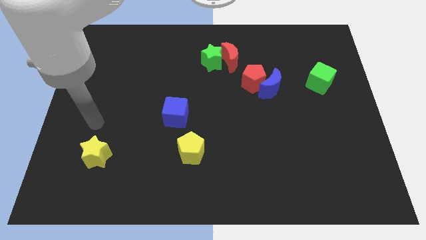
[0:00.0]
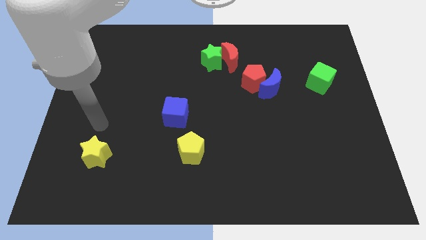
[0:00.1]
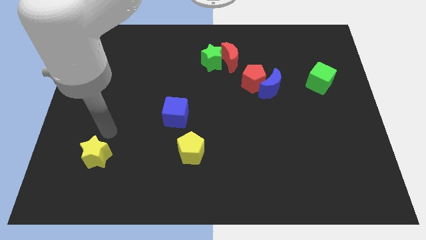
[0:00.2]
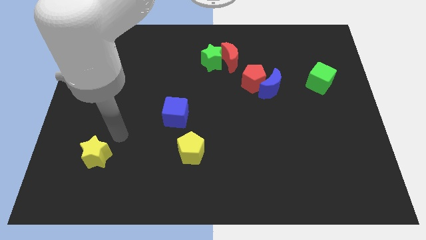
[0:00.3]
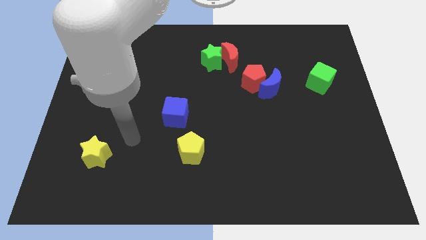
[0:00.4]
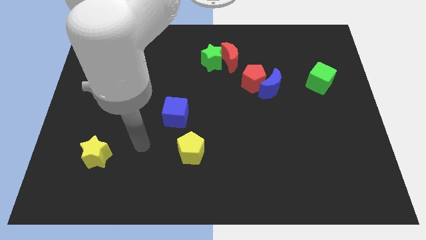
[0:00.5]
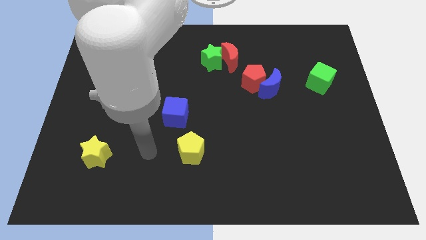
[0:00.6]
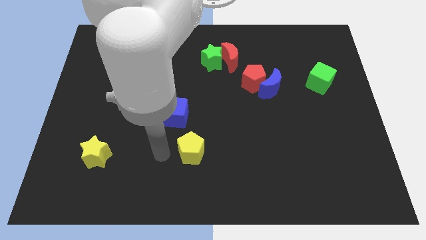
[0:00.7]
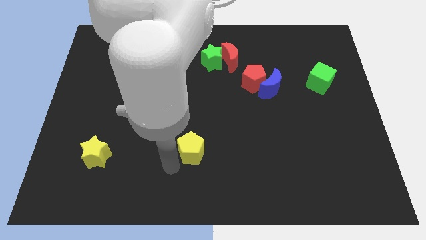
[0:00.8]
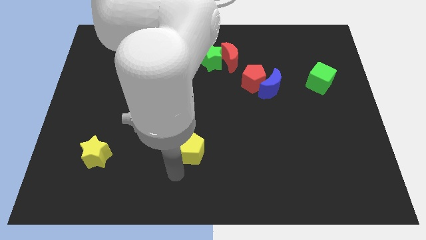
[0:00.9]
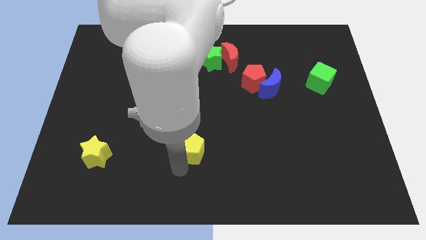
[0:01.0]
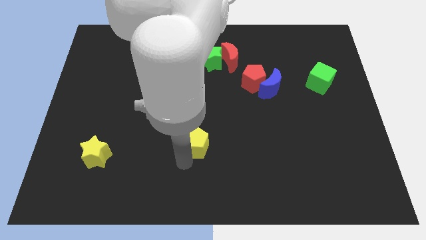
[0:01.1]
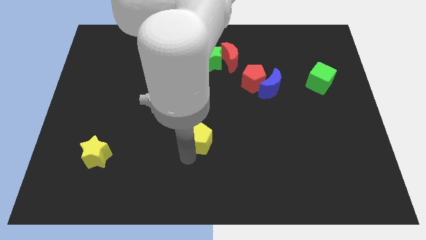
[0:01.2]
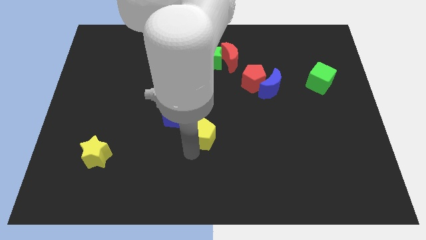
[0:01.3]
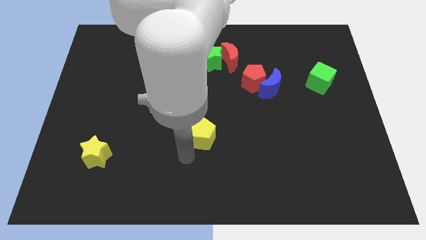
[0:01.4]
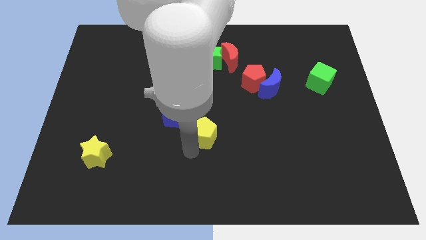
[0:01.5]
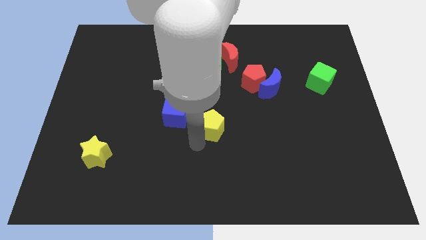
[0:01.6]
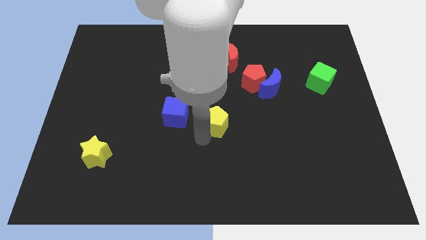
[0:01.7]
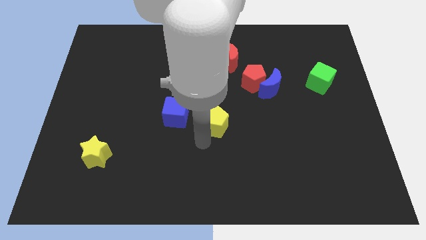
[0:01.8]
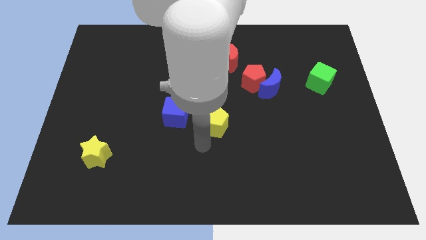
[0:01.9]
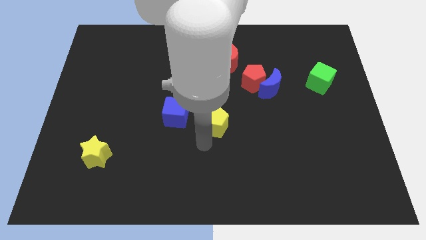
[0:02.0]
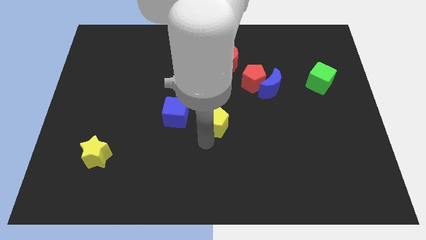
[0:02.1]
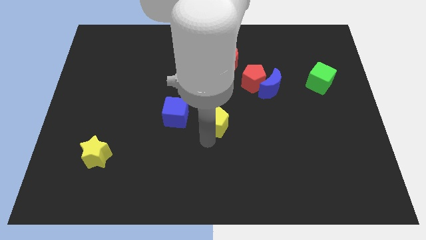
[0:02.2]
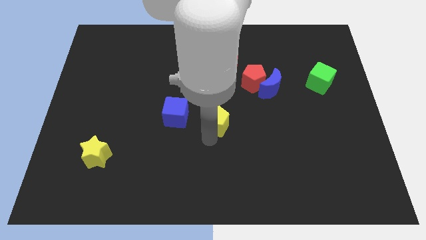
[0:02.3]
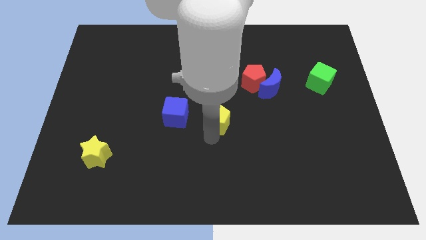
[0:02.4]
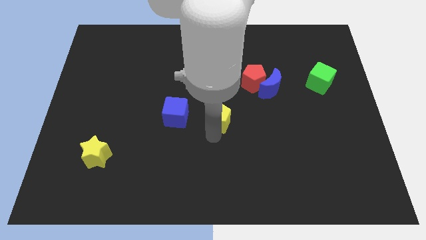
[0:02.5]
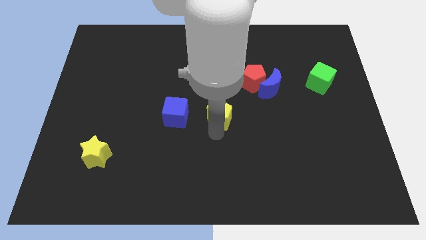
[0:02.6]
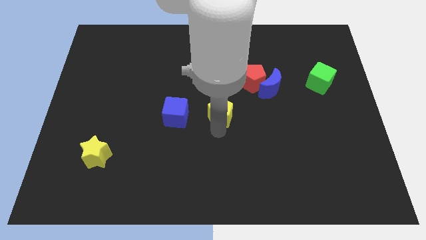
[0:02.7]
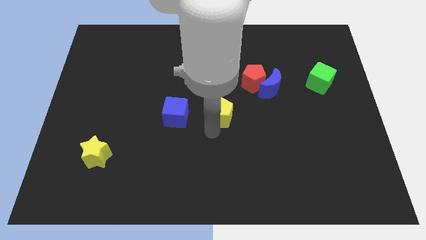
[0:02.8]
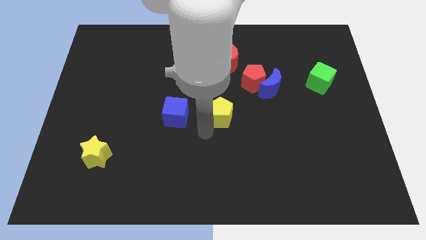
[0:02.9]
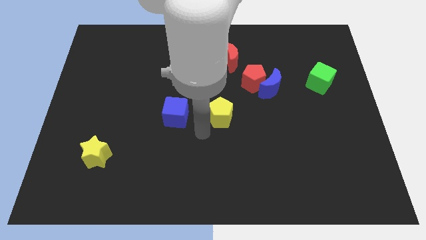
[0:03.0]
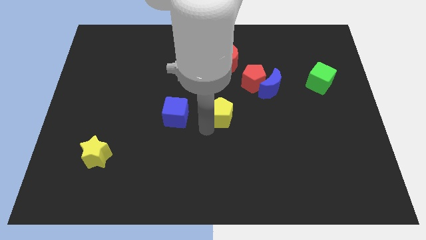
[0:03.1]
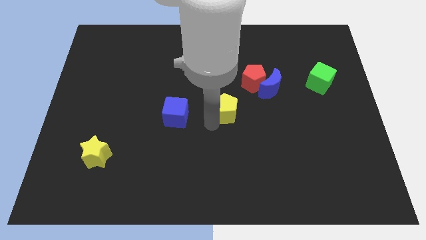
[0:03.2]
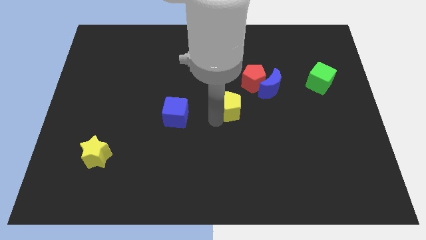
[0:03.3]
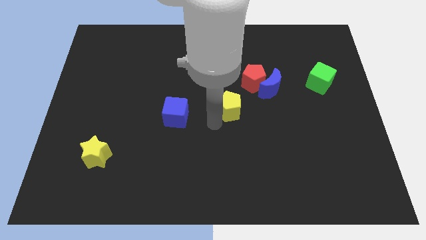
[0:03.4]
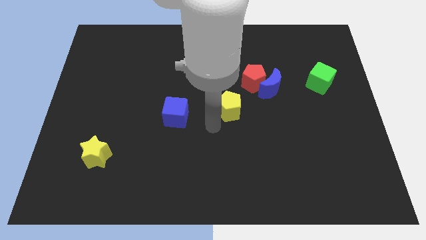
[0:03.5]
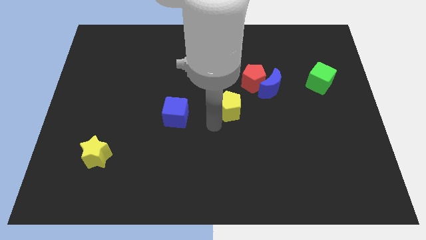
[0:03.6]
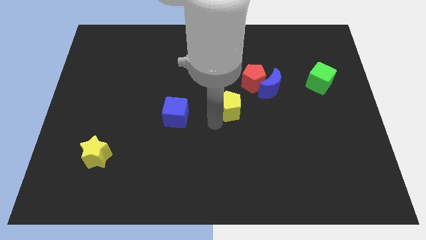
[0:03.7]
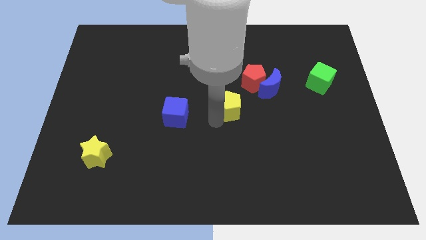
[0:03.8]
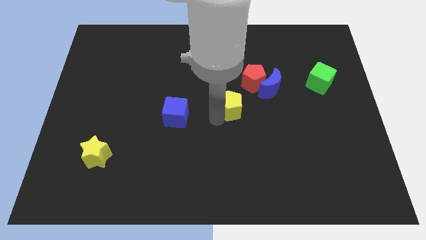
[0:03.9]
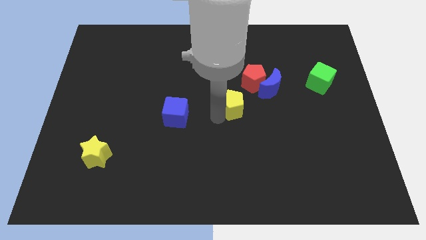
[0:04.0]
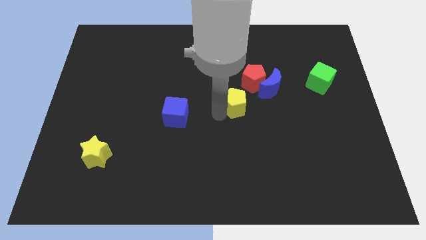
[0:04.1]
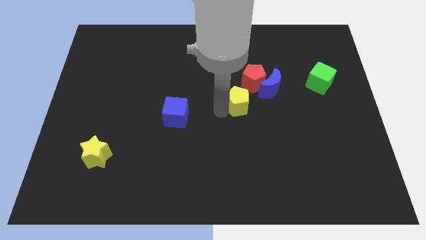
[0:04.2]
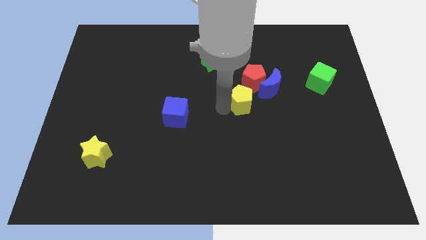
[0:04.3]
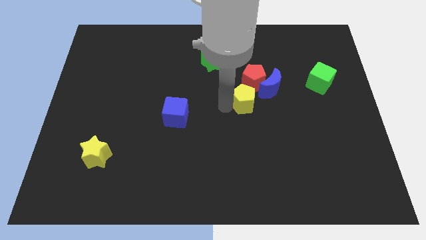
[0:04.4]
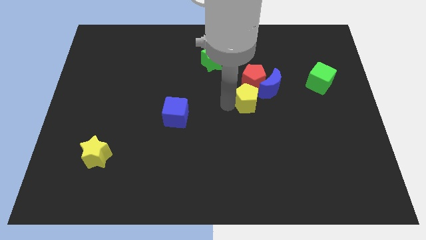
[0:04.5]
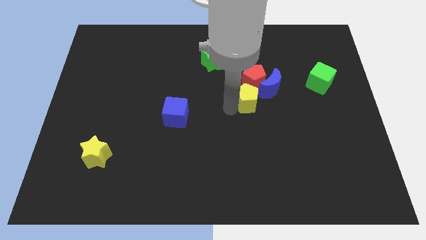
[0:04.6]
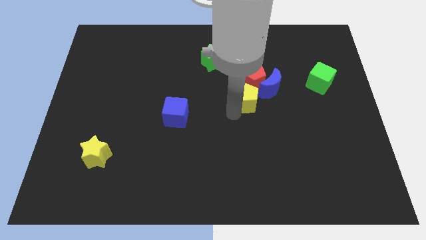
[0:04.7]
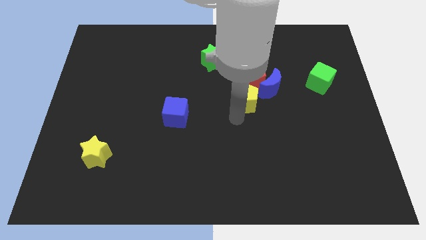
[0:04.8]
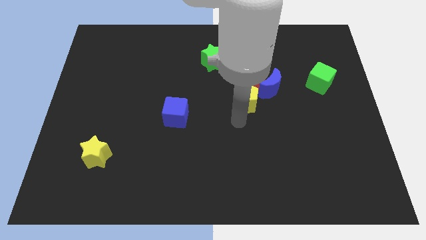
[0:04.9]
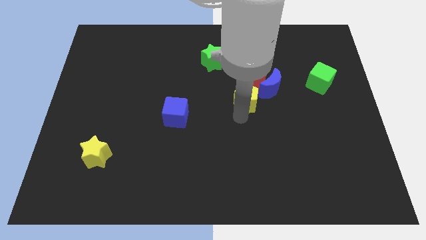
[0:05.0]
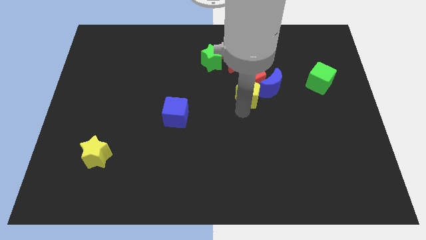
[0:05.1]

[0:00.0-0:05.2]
slide the yellow pentagon next to the red pentagon

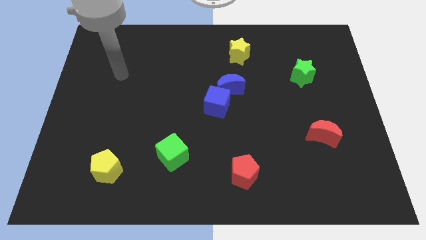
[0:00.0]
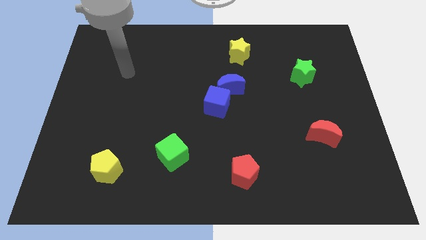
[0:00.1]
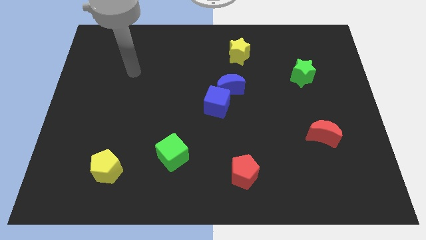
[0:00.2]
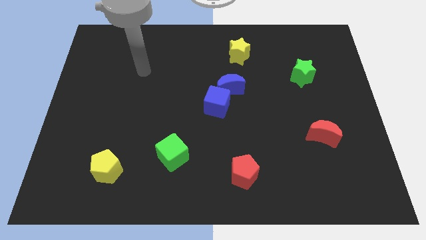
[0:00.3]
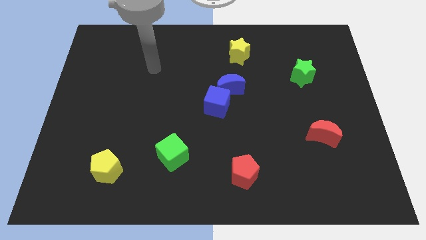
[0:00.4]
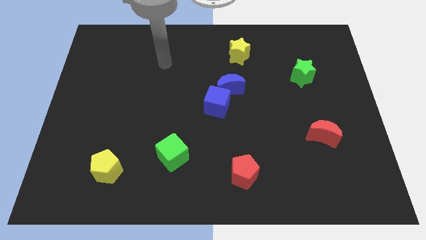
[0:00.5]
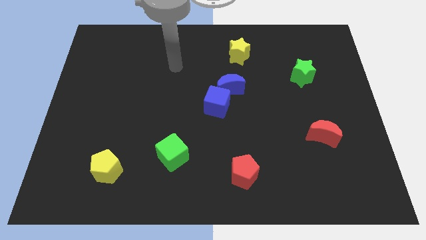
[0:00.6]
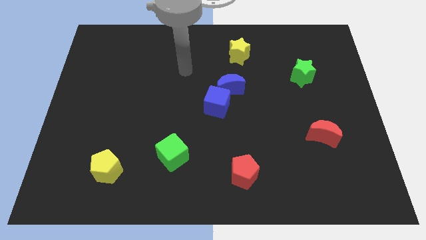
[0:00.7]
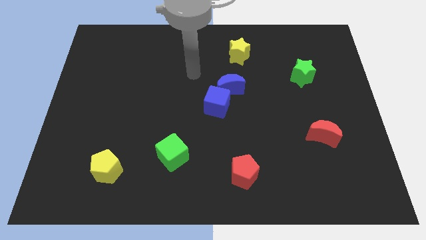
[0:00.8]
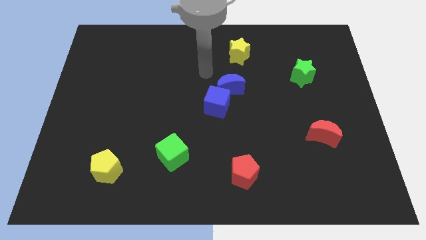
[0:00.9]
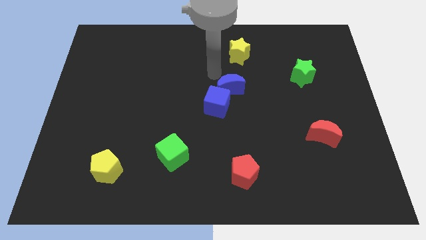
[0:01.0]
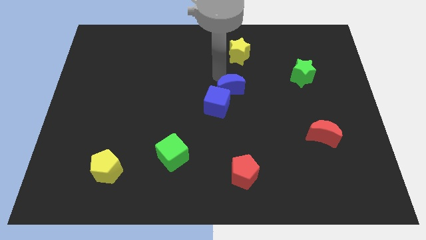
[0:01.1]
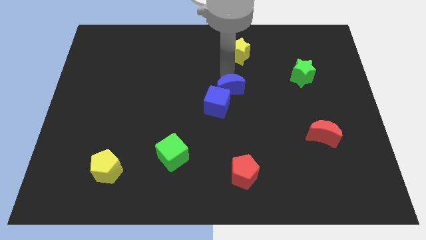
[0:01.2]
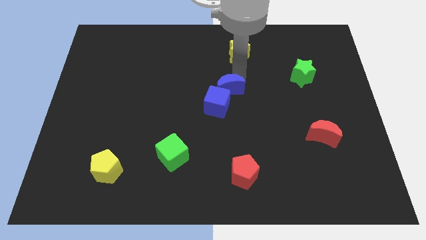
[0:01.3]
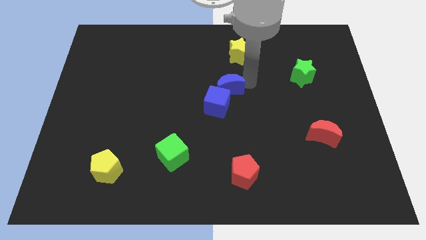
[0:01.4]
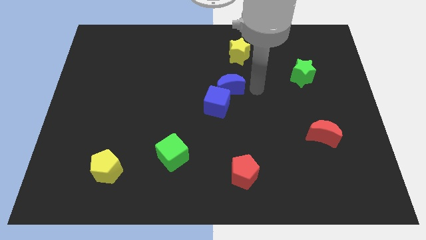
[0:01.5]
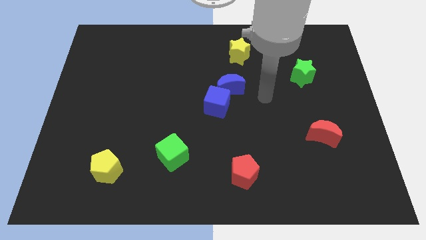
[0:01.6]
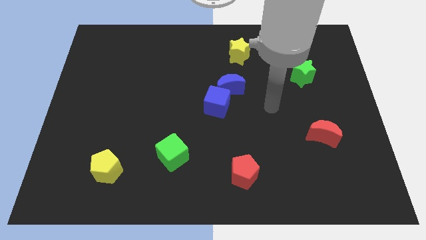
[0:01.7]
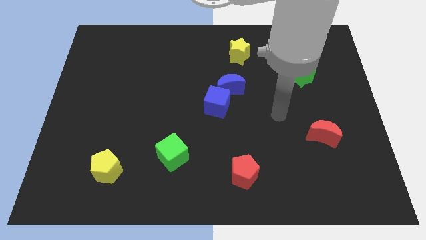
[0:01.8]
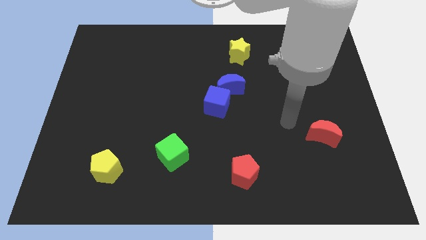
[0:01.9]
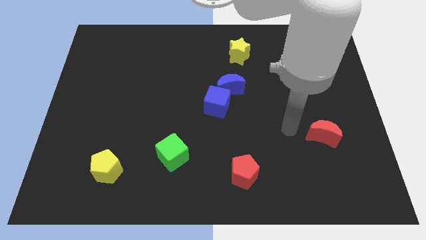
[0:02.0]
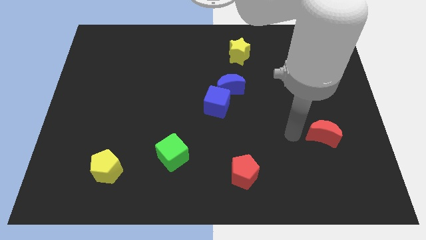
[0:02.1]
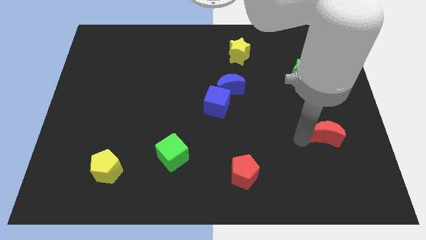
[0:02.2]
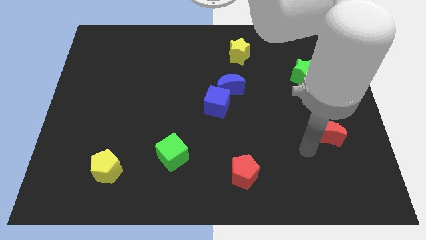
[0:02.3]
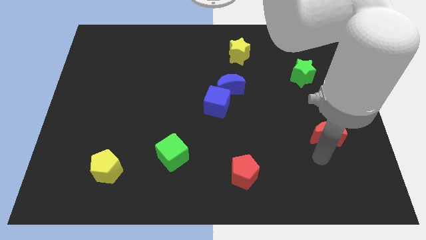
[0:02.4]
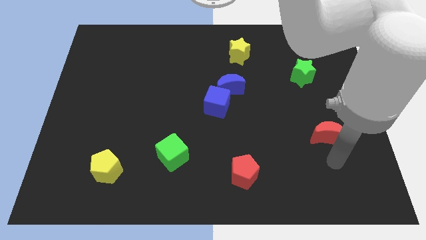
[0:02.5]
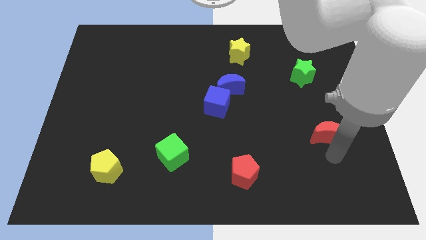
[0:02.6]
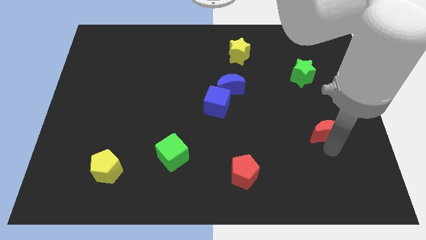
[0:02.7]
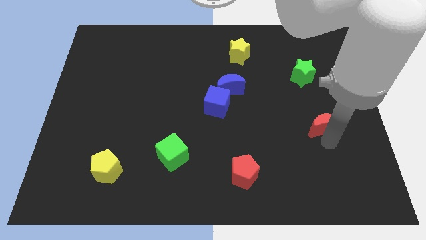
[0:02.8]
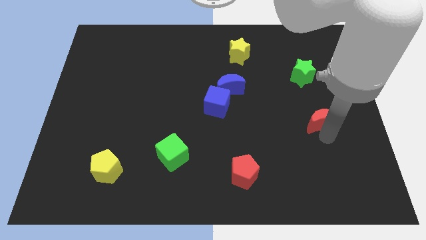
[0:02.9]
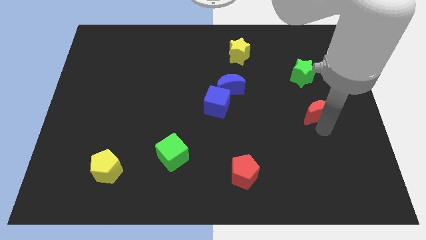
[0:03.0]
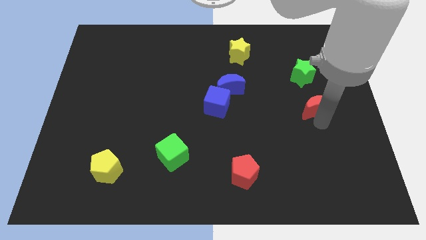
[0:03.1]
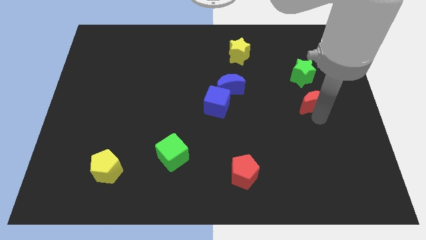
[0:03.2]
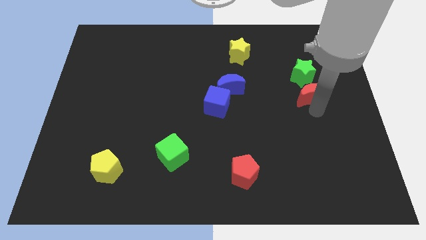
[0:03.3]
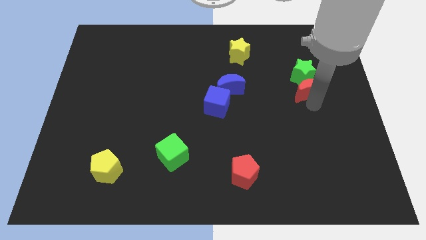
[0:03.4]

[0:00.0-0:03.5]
move the red moon close to the green star
